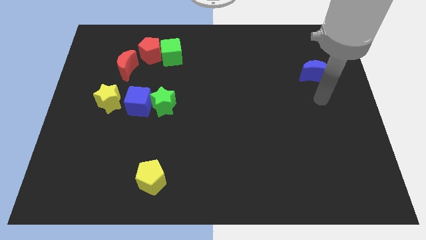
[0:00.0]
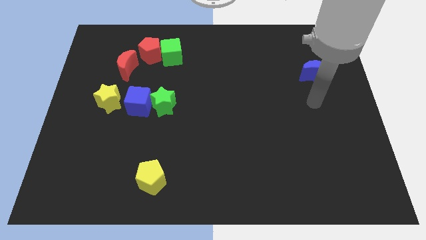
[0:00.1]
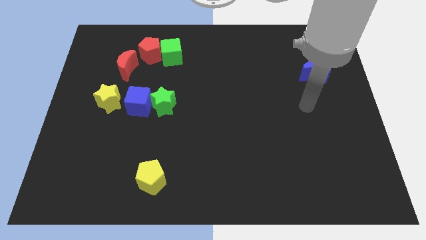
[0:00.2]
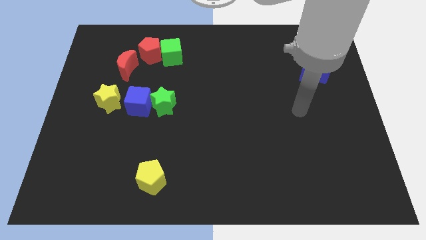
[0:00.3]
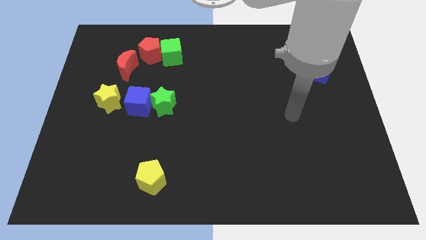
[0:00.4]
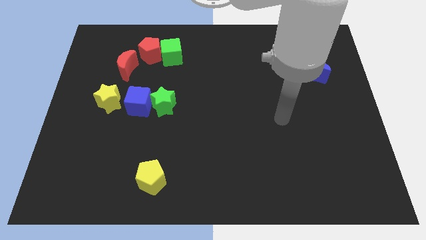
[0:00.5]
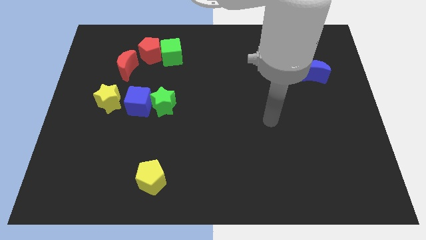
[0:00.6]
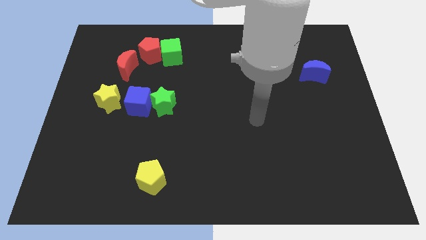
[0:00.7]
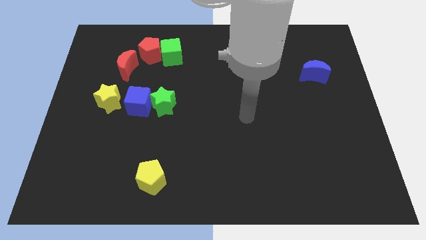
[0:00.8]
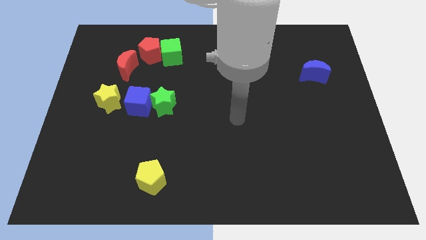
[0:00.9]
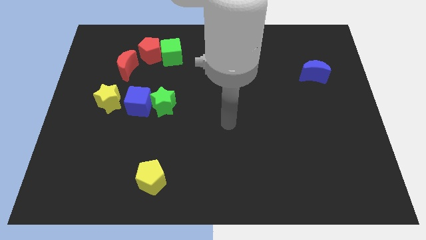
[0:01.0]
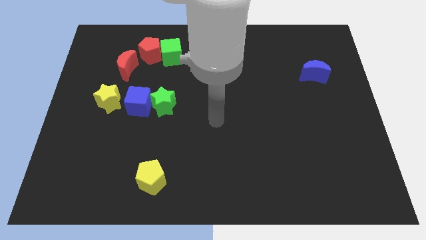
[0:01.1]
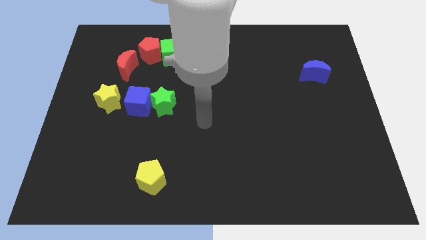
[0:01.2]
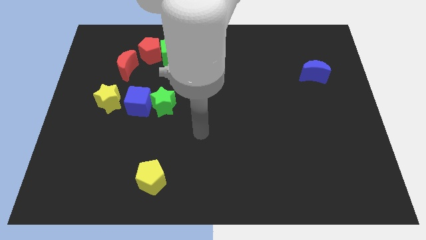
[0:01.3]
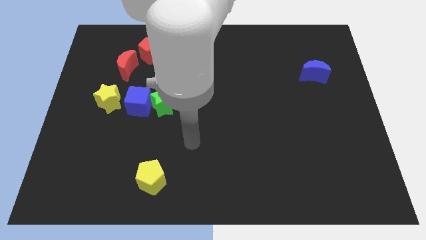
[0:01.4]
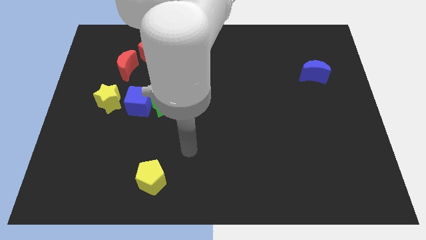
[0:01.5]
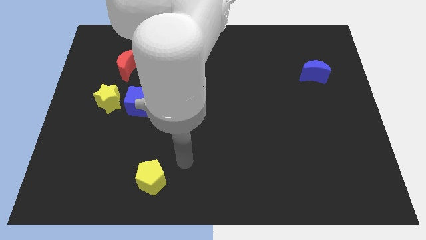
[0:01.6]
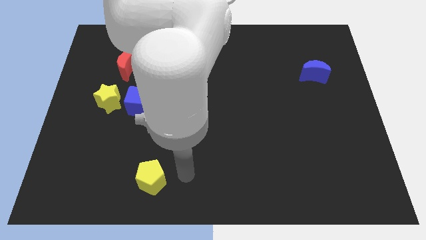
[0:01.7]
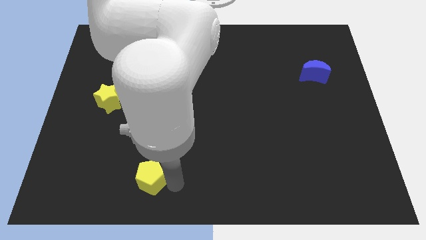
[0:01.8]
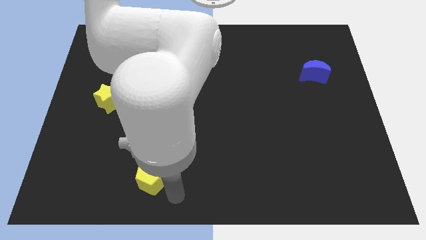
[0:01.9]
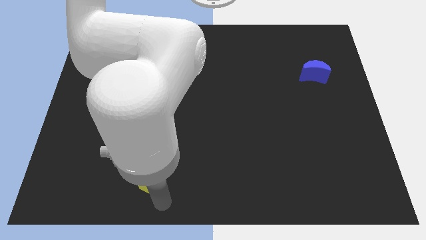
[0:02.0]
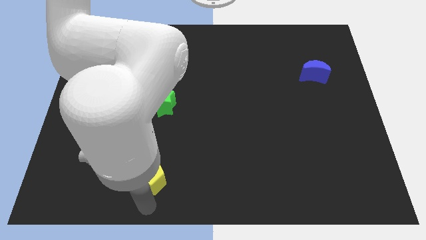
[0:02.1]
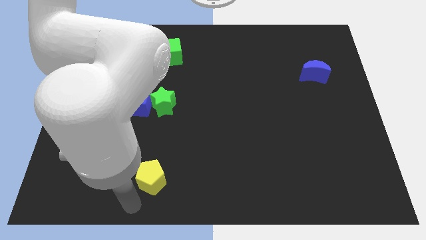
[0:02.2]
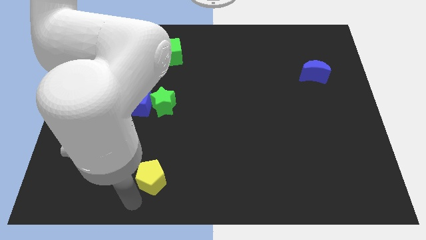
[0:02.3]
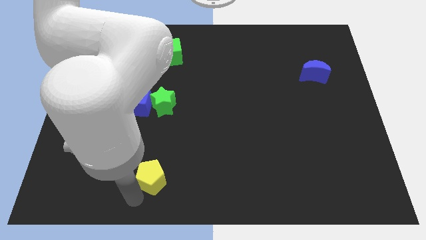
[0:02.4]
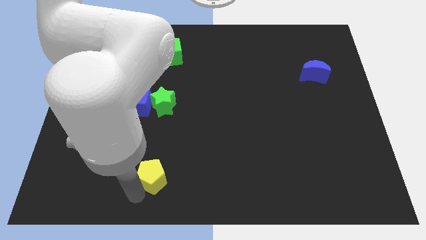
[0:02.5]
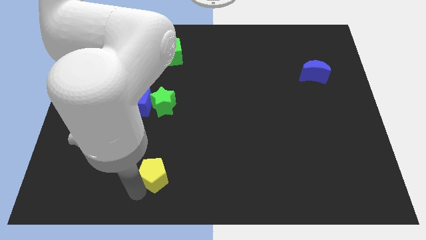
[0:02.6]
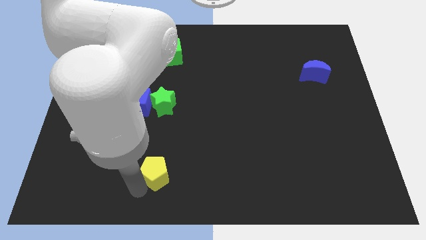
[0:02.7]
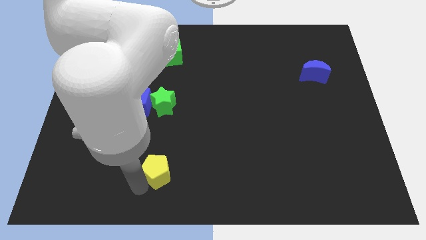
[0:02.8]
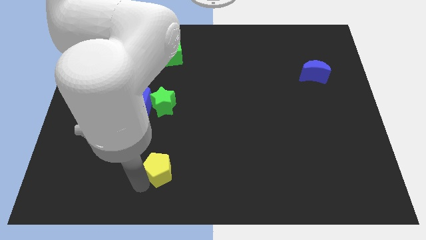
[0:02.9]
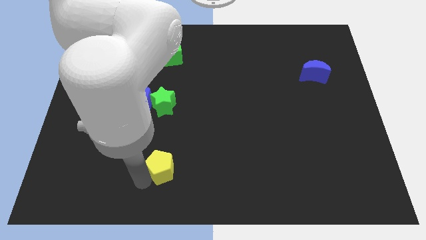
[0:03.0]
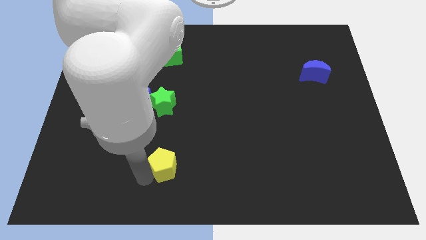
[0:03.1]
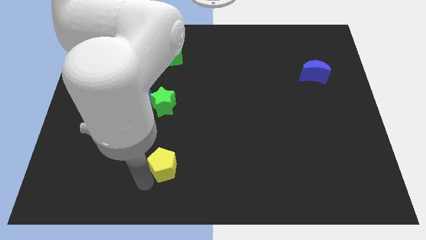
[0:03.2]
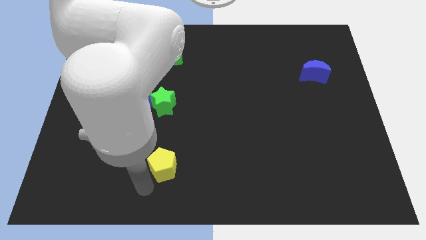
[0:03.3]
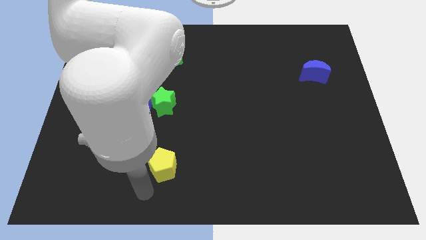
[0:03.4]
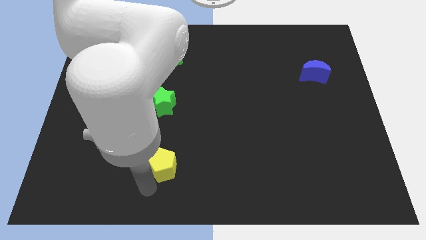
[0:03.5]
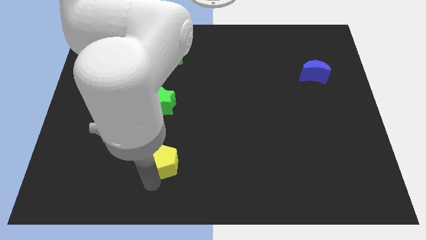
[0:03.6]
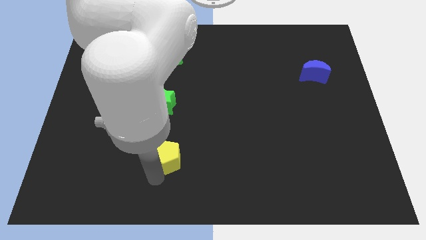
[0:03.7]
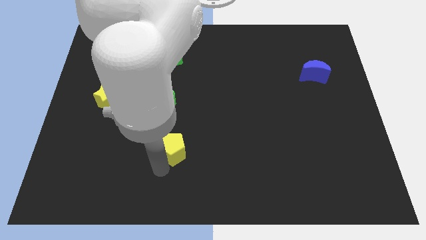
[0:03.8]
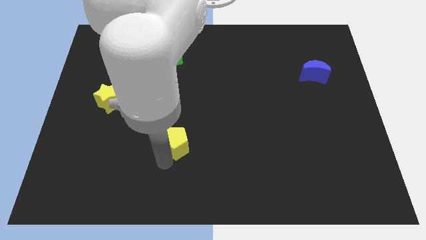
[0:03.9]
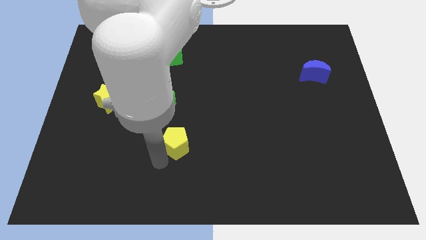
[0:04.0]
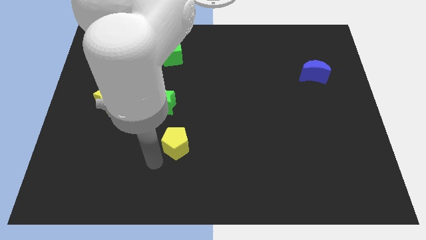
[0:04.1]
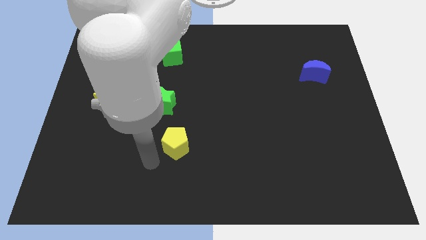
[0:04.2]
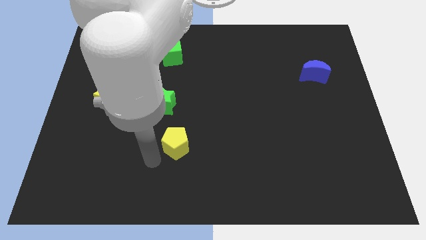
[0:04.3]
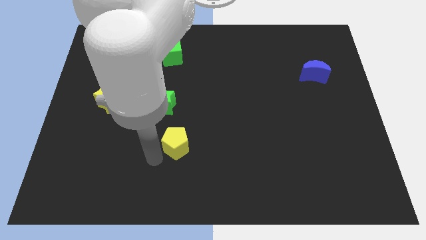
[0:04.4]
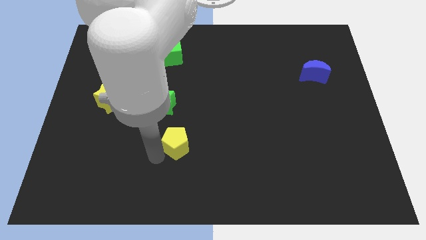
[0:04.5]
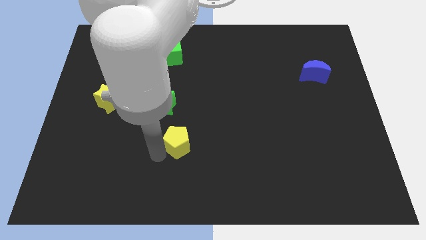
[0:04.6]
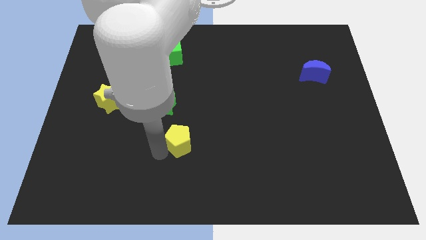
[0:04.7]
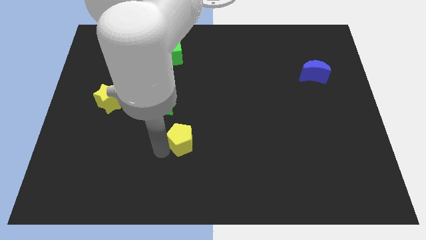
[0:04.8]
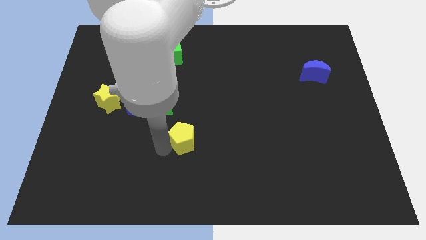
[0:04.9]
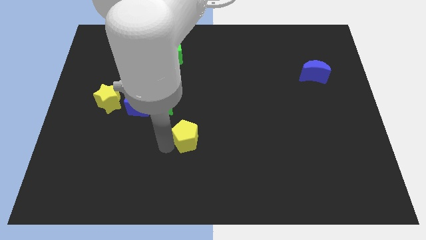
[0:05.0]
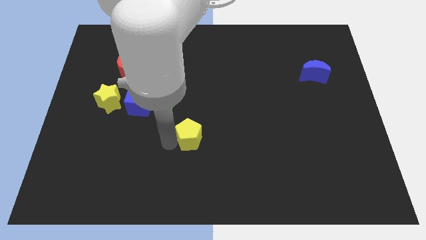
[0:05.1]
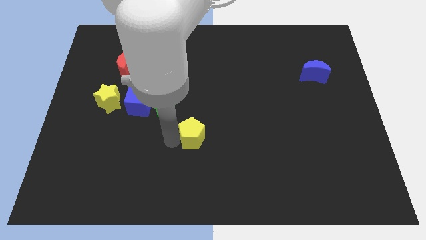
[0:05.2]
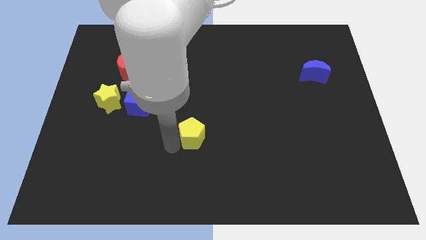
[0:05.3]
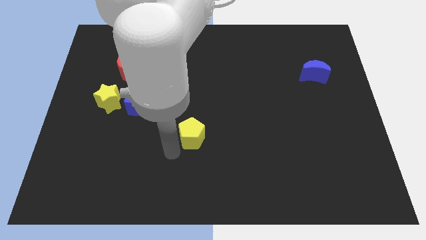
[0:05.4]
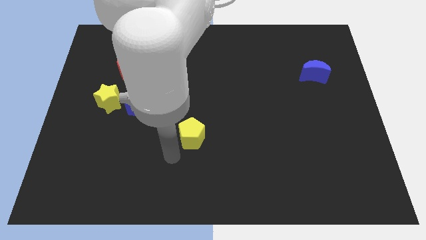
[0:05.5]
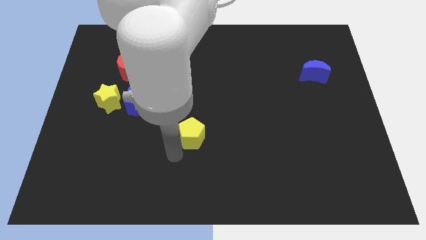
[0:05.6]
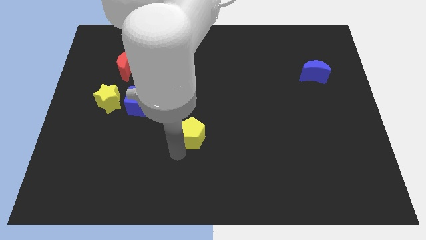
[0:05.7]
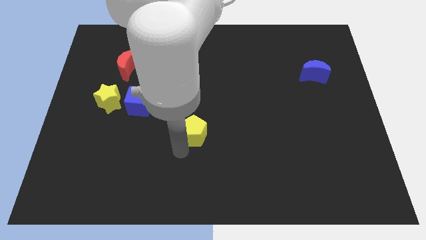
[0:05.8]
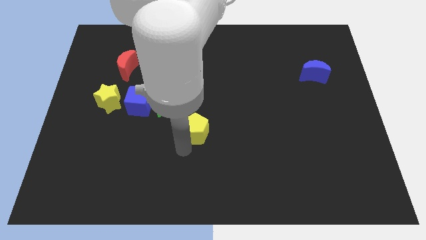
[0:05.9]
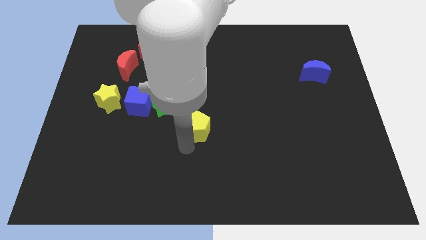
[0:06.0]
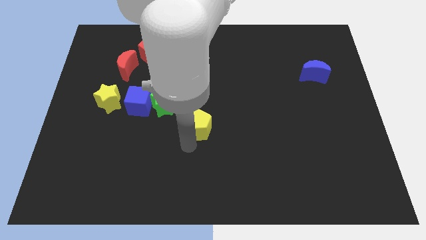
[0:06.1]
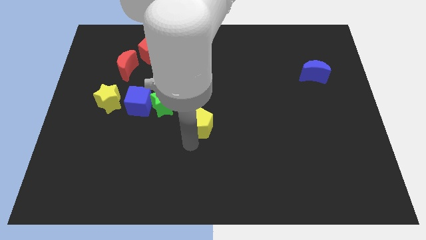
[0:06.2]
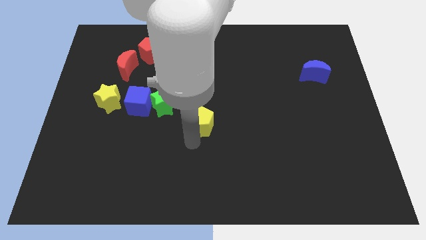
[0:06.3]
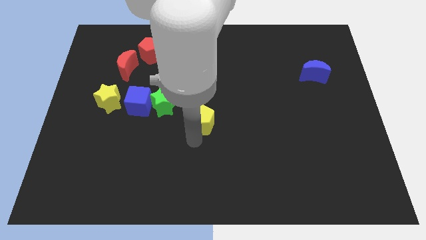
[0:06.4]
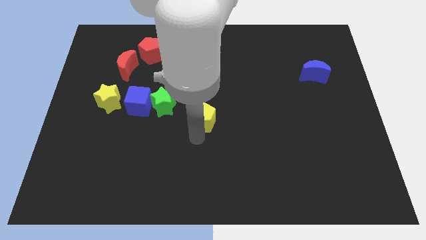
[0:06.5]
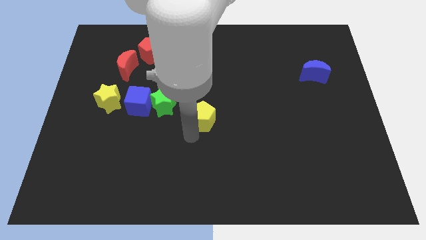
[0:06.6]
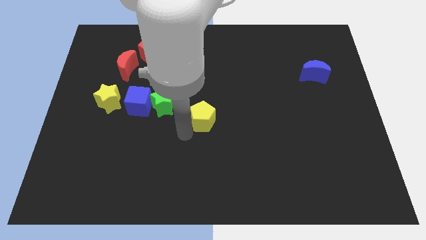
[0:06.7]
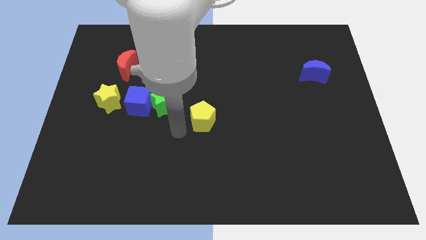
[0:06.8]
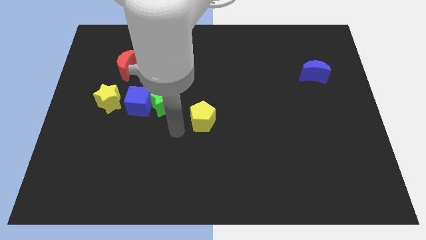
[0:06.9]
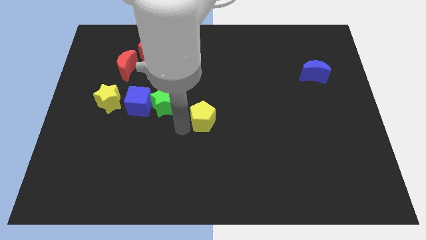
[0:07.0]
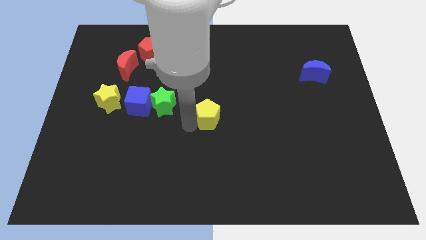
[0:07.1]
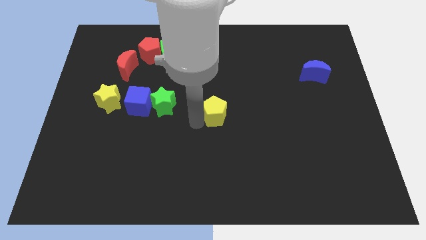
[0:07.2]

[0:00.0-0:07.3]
move the yellow pentagon upwards and to the right

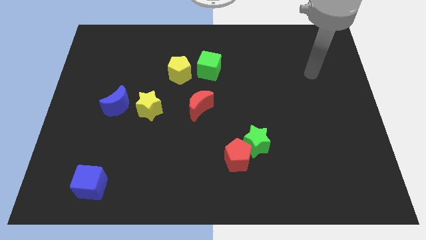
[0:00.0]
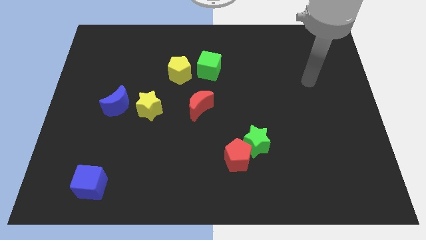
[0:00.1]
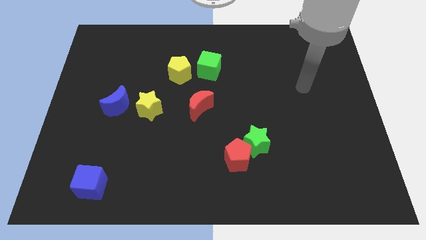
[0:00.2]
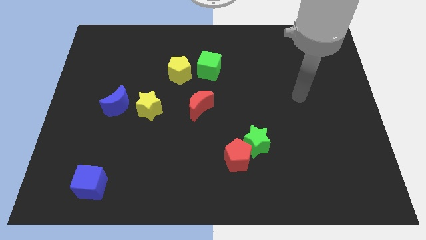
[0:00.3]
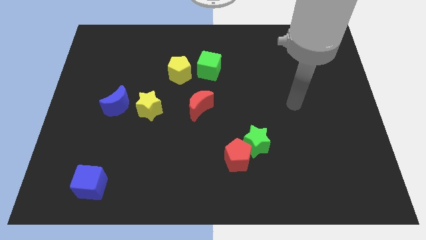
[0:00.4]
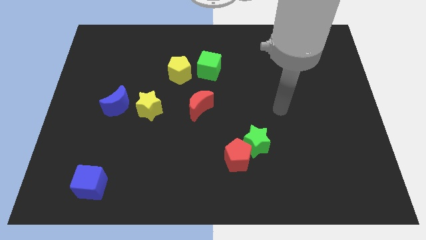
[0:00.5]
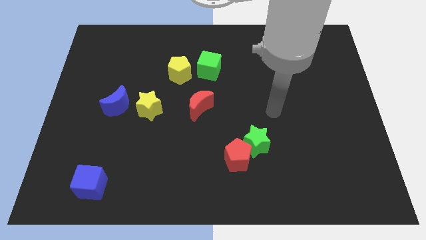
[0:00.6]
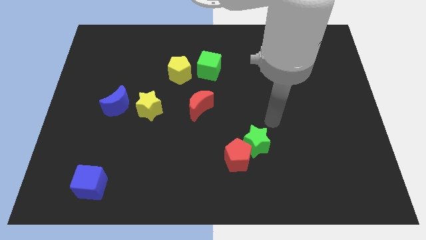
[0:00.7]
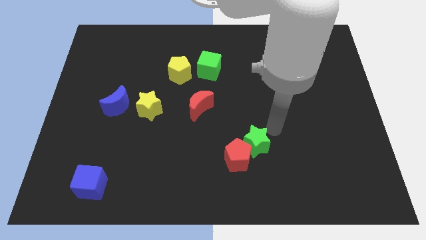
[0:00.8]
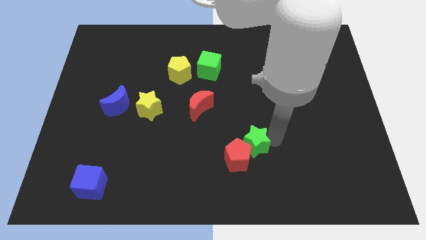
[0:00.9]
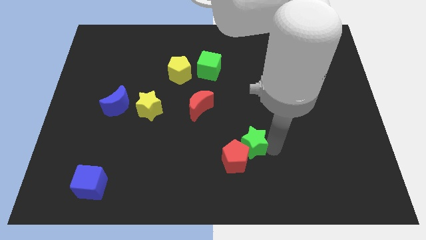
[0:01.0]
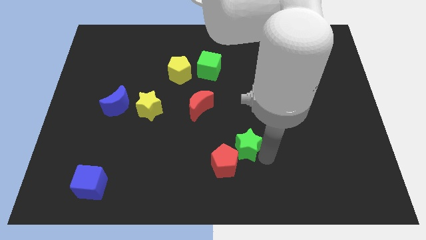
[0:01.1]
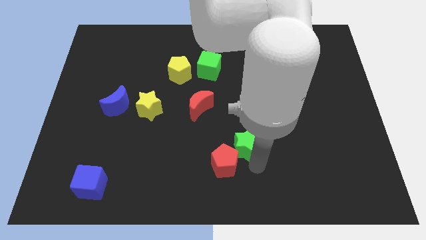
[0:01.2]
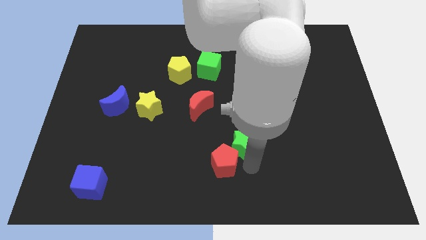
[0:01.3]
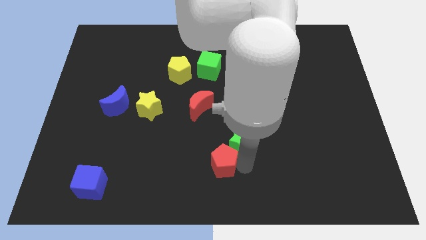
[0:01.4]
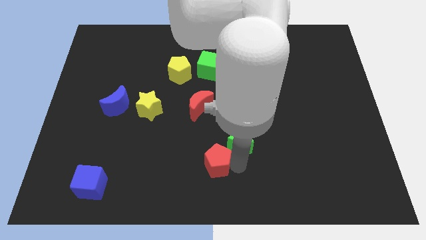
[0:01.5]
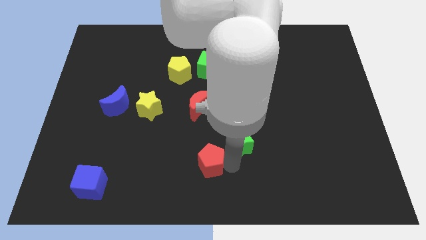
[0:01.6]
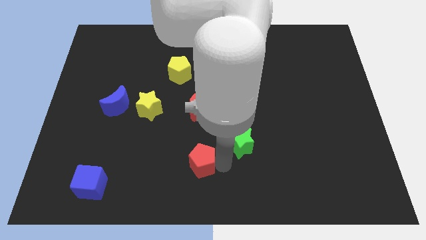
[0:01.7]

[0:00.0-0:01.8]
slightly move the red pentagon to the left
